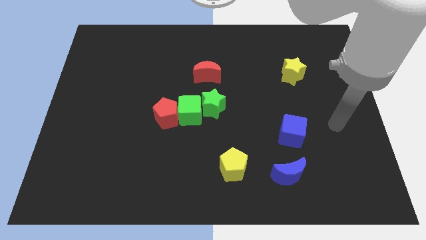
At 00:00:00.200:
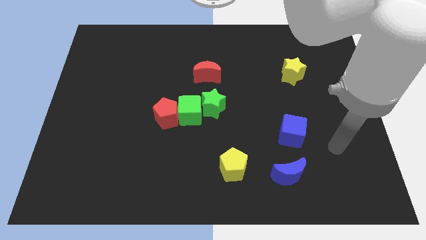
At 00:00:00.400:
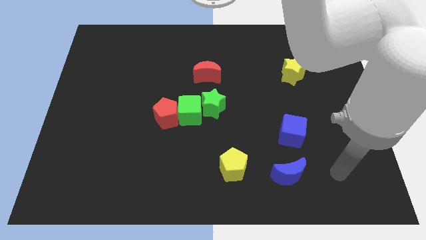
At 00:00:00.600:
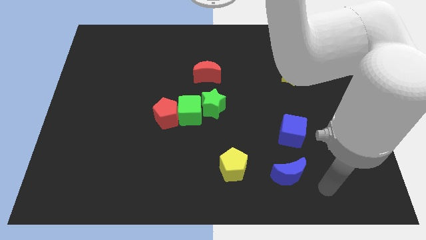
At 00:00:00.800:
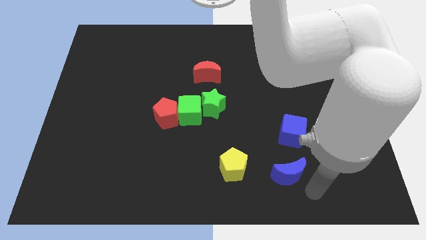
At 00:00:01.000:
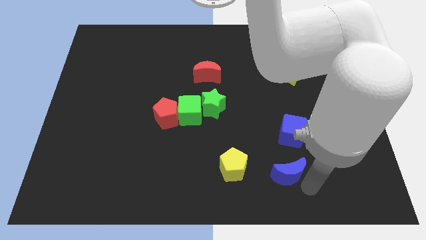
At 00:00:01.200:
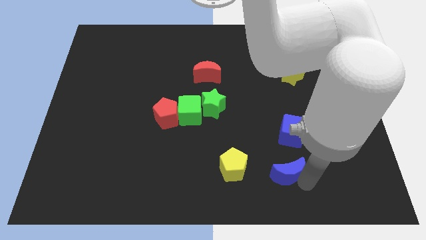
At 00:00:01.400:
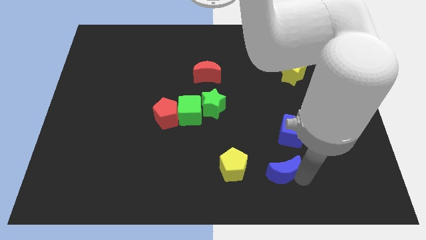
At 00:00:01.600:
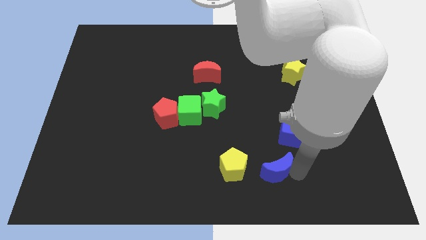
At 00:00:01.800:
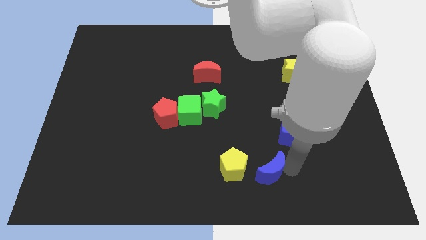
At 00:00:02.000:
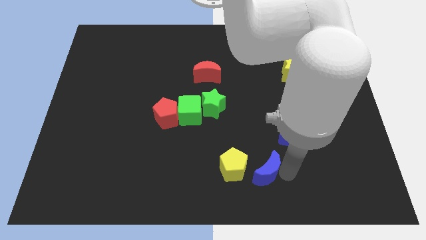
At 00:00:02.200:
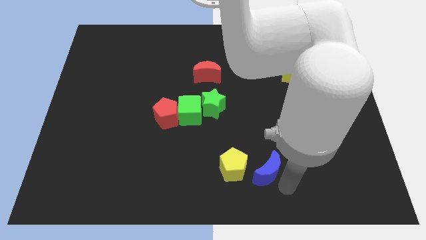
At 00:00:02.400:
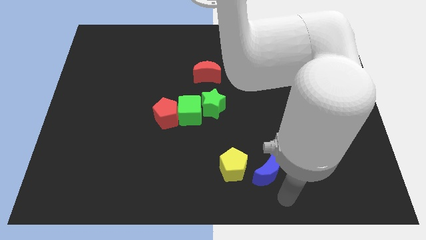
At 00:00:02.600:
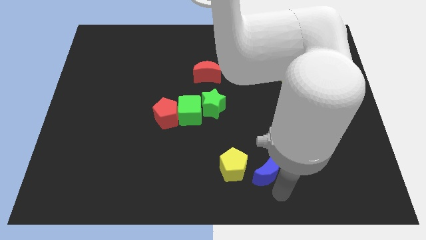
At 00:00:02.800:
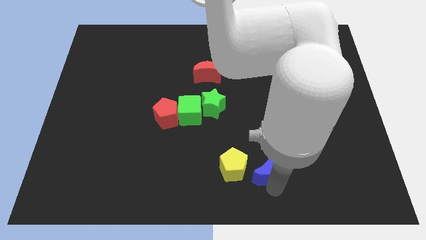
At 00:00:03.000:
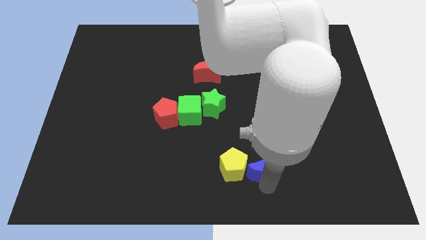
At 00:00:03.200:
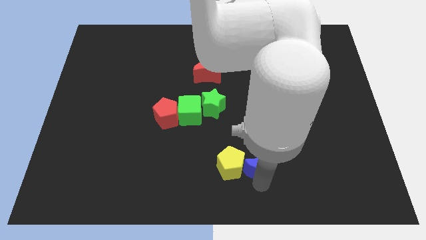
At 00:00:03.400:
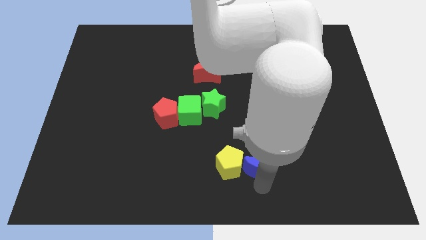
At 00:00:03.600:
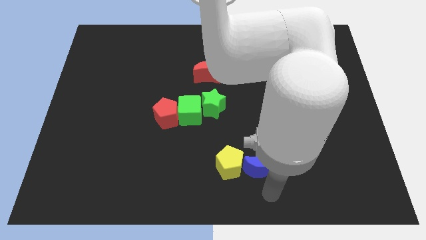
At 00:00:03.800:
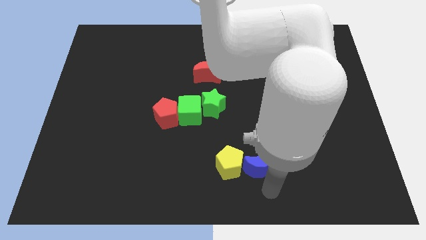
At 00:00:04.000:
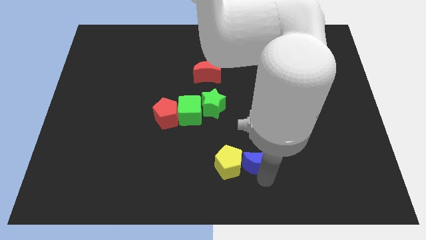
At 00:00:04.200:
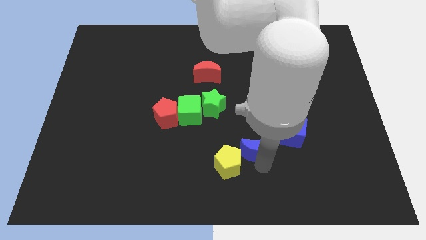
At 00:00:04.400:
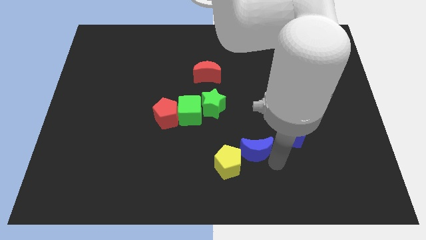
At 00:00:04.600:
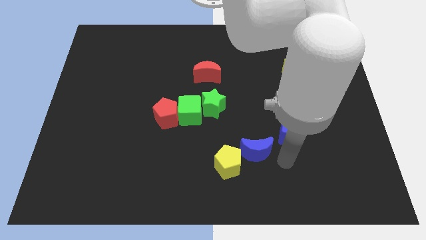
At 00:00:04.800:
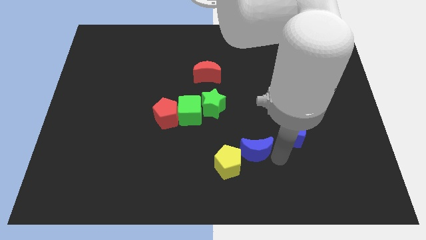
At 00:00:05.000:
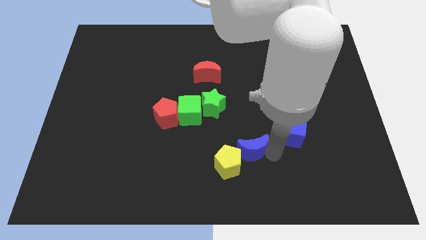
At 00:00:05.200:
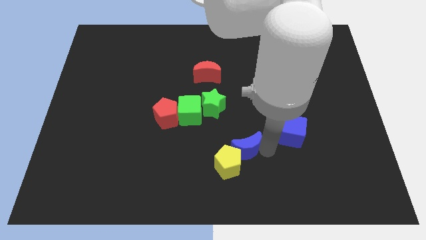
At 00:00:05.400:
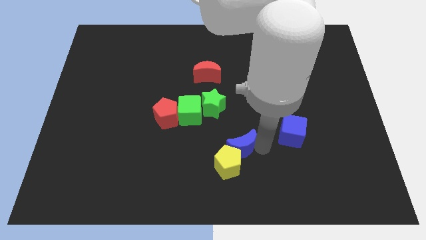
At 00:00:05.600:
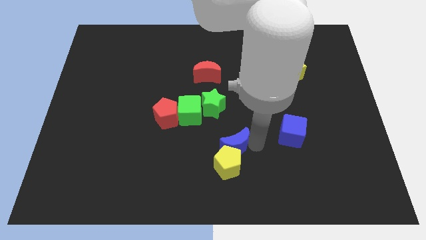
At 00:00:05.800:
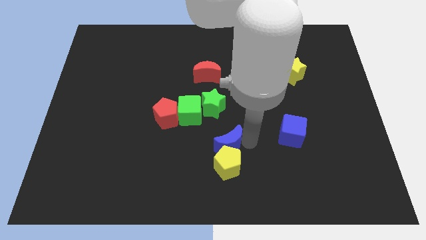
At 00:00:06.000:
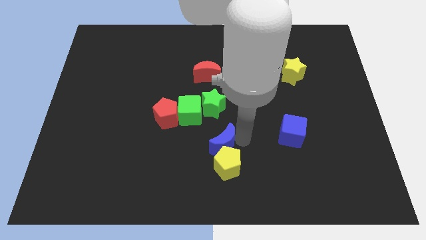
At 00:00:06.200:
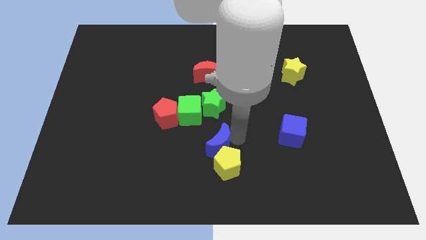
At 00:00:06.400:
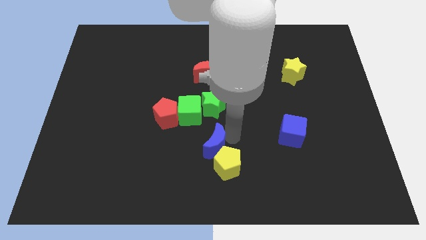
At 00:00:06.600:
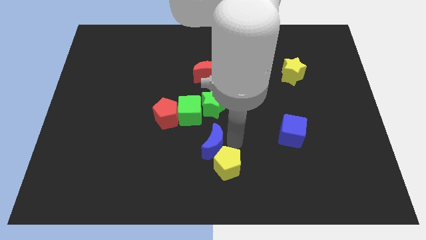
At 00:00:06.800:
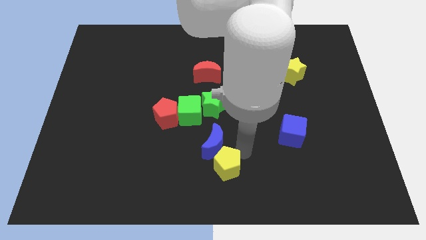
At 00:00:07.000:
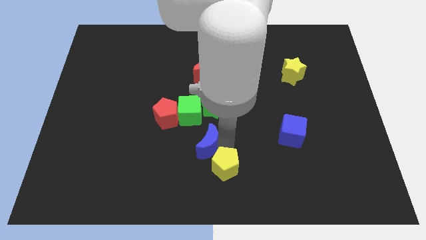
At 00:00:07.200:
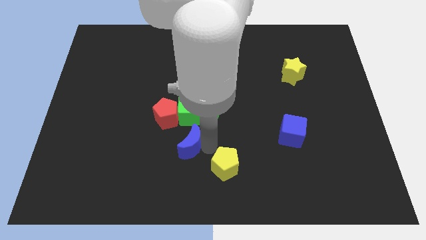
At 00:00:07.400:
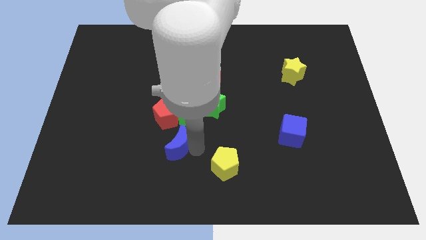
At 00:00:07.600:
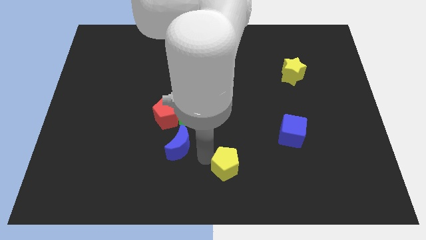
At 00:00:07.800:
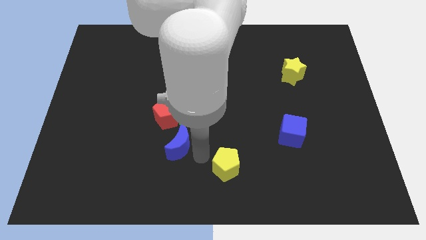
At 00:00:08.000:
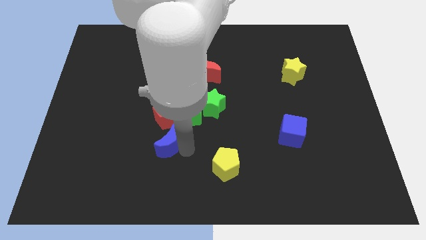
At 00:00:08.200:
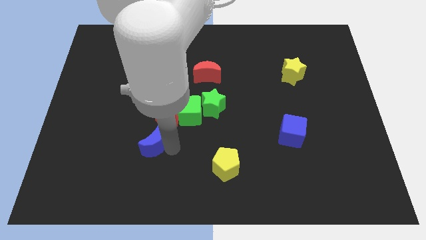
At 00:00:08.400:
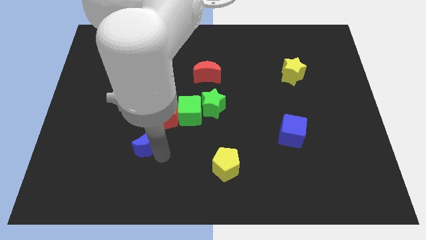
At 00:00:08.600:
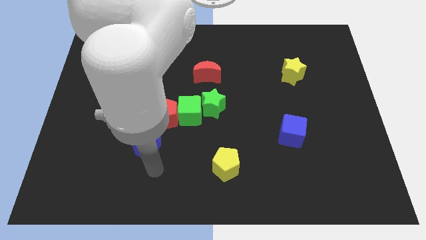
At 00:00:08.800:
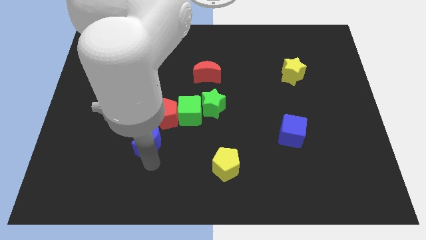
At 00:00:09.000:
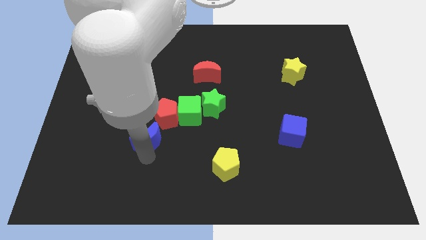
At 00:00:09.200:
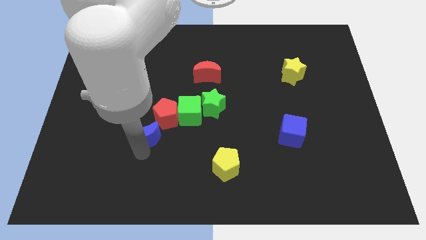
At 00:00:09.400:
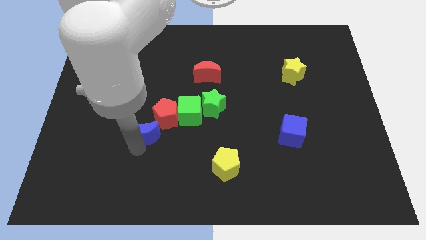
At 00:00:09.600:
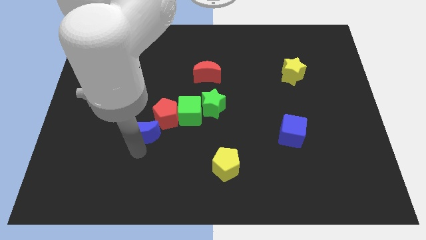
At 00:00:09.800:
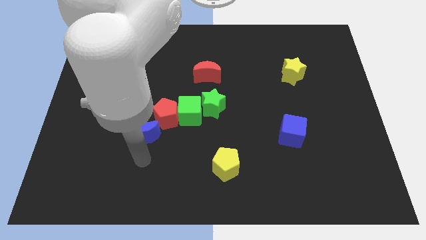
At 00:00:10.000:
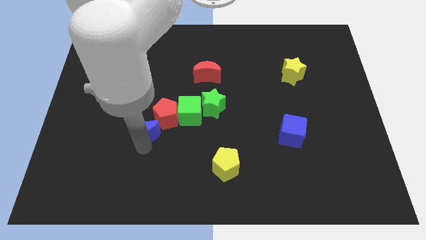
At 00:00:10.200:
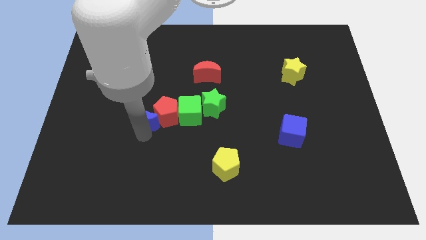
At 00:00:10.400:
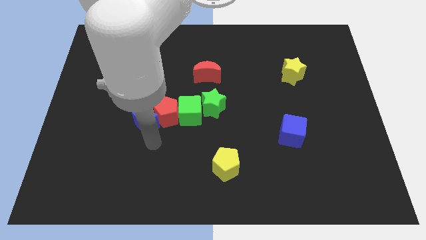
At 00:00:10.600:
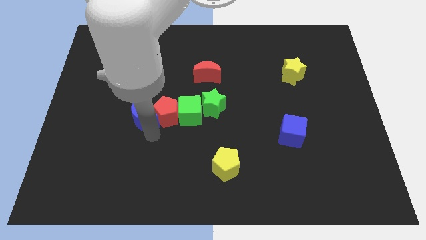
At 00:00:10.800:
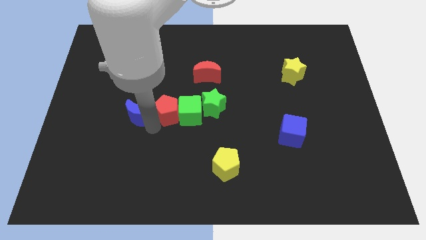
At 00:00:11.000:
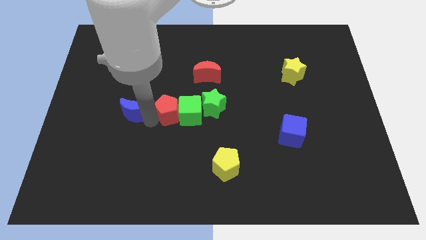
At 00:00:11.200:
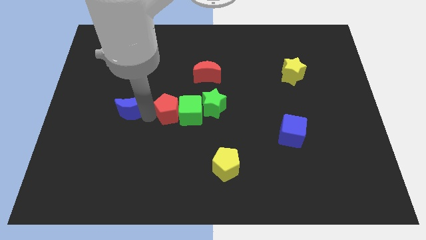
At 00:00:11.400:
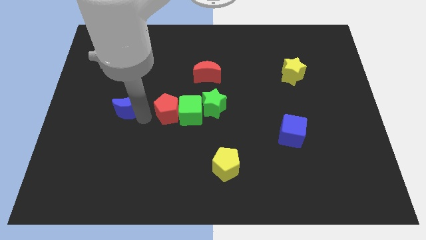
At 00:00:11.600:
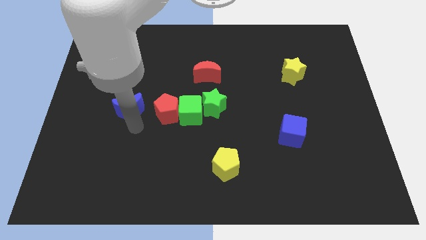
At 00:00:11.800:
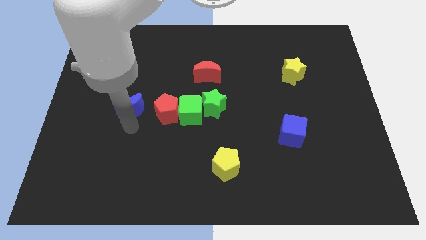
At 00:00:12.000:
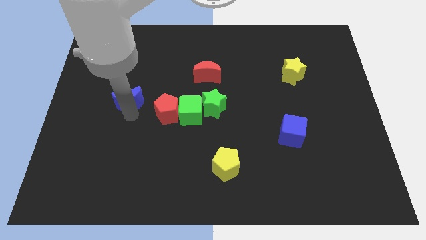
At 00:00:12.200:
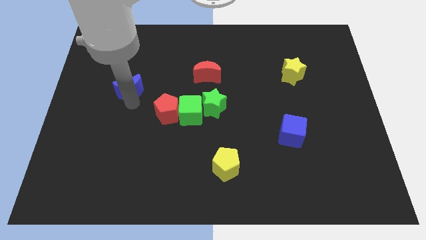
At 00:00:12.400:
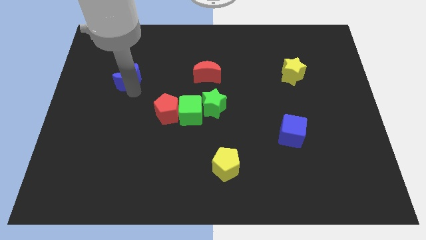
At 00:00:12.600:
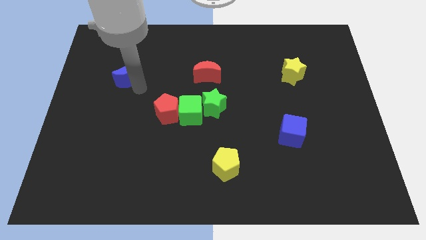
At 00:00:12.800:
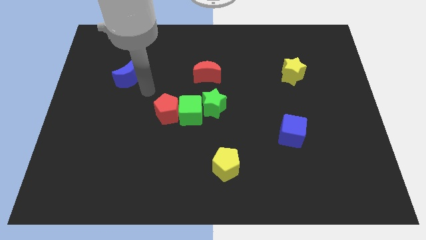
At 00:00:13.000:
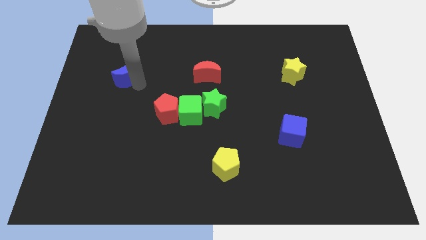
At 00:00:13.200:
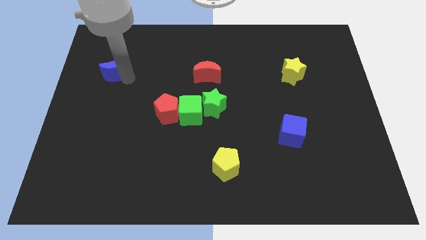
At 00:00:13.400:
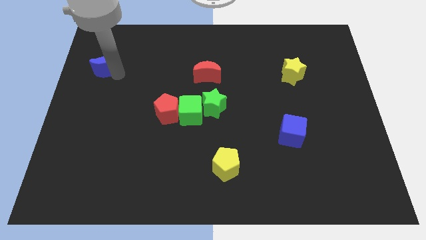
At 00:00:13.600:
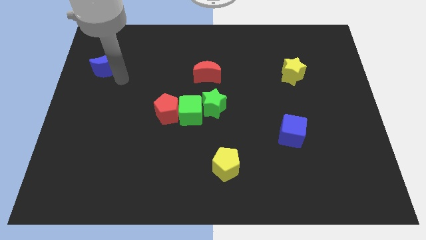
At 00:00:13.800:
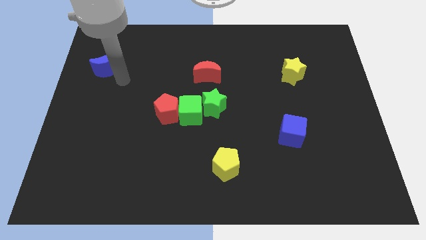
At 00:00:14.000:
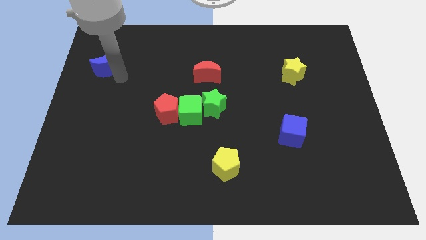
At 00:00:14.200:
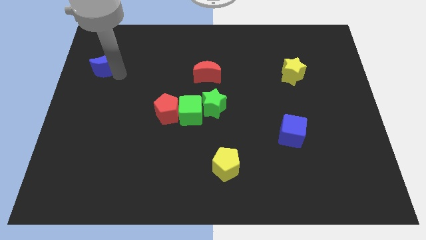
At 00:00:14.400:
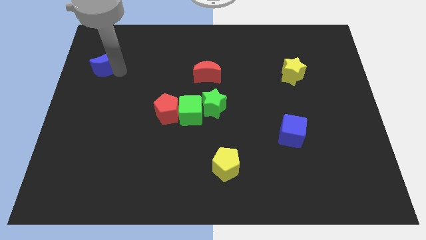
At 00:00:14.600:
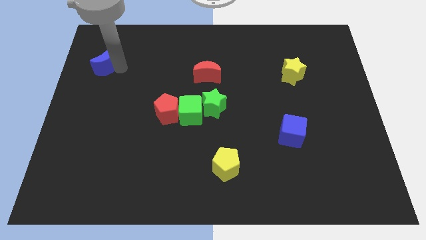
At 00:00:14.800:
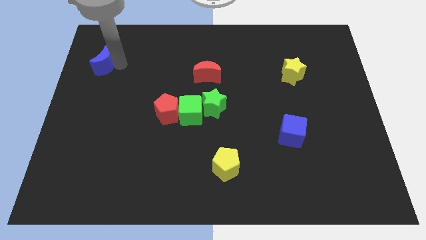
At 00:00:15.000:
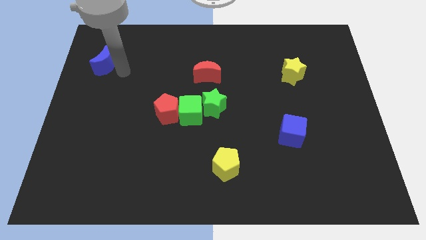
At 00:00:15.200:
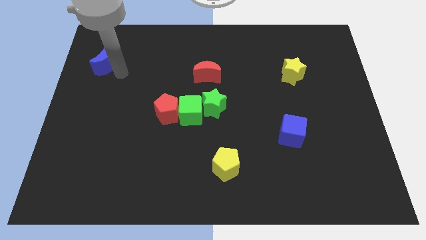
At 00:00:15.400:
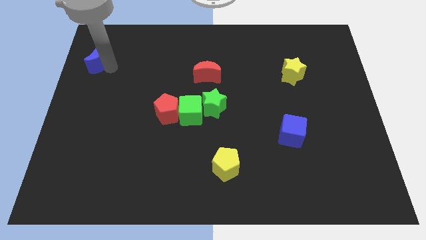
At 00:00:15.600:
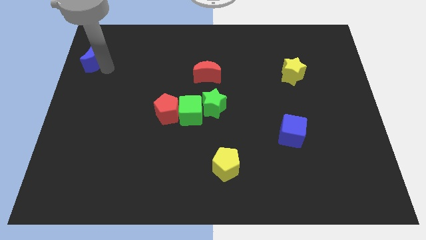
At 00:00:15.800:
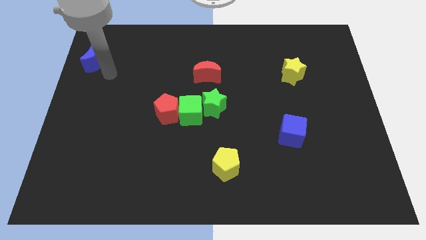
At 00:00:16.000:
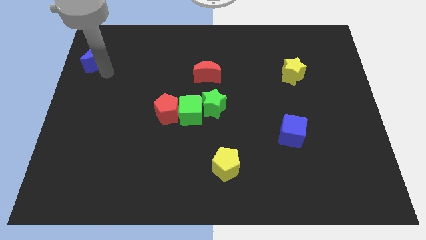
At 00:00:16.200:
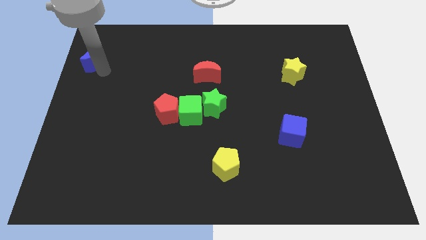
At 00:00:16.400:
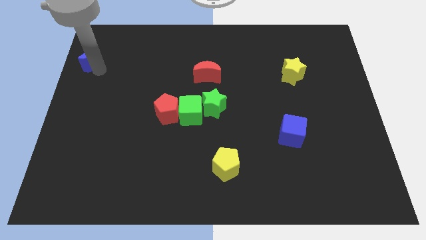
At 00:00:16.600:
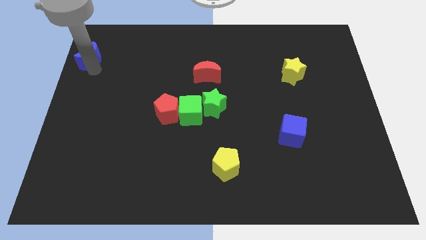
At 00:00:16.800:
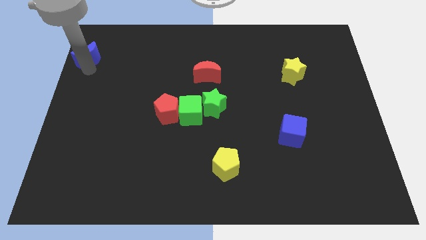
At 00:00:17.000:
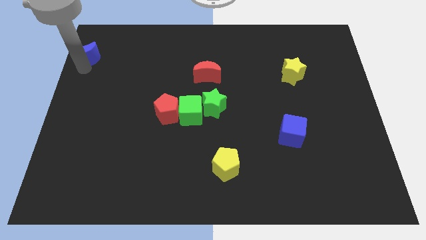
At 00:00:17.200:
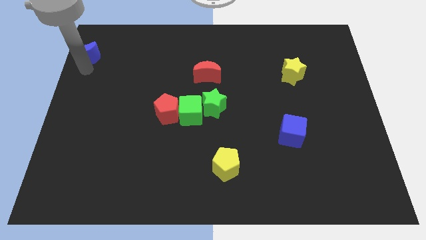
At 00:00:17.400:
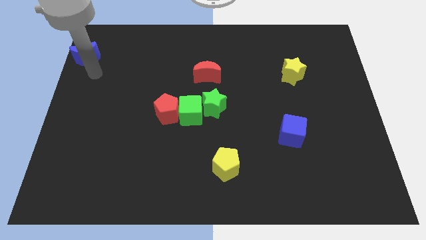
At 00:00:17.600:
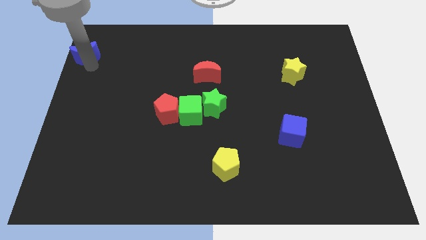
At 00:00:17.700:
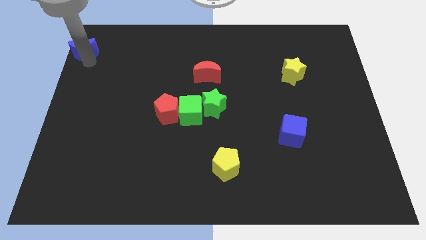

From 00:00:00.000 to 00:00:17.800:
slide the blue moon to the top left
